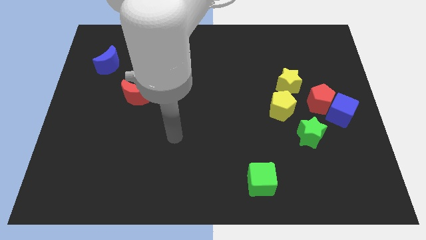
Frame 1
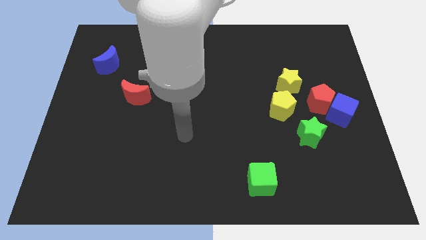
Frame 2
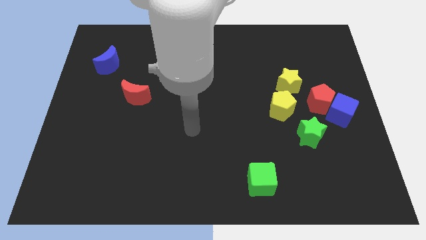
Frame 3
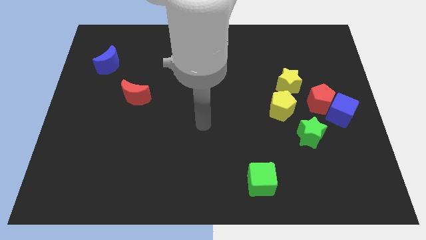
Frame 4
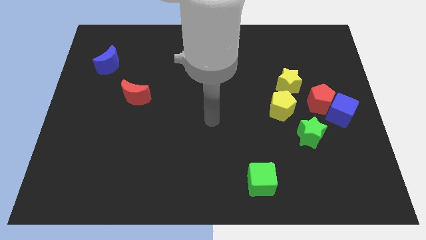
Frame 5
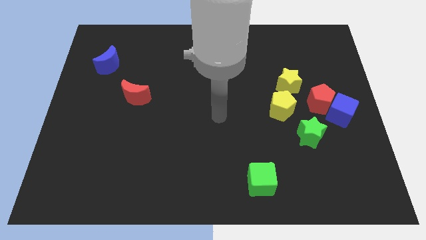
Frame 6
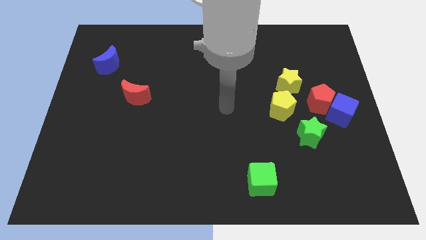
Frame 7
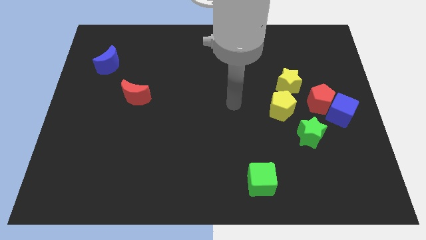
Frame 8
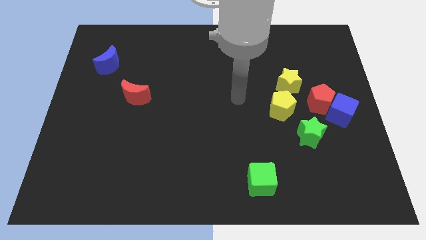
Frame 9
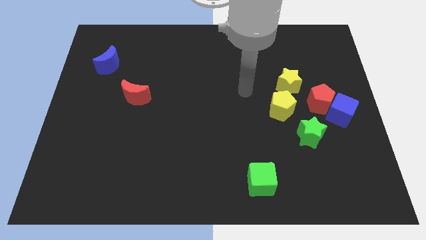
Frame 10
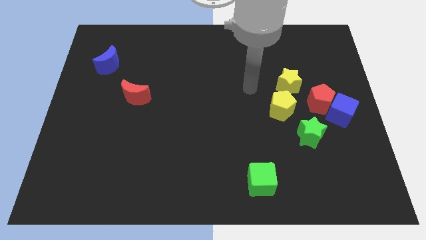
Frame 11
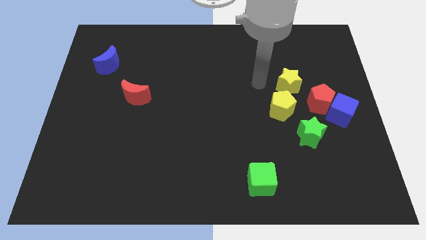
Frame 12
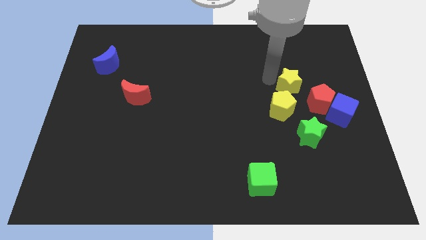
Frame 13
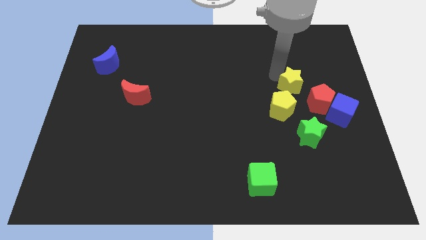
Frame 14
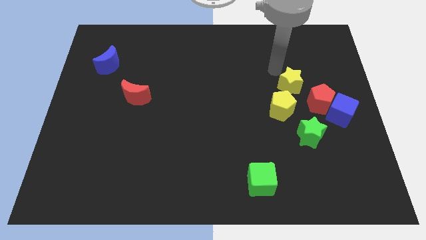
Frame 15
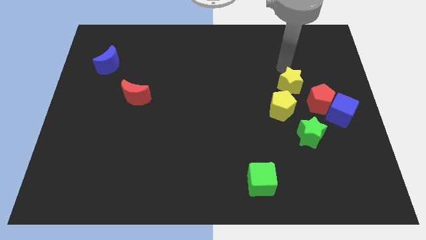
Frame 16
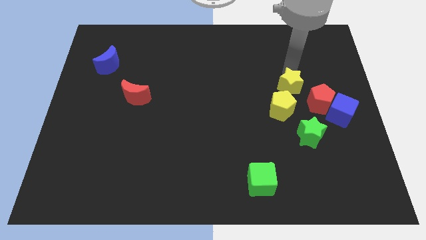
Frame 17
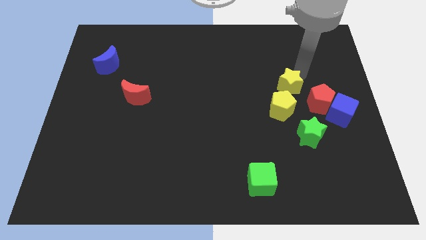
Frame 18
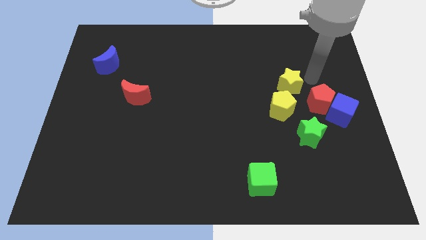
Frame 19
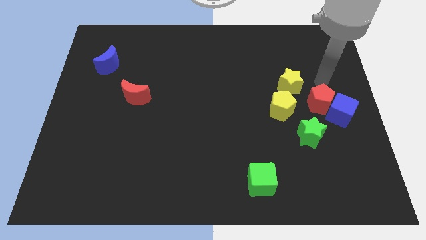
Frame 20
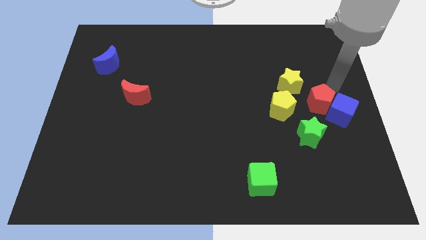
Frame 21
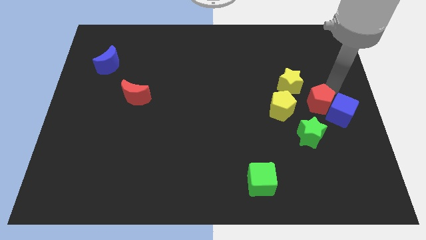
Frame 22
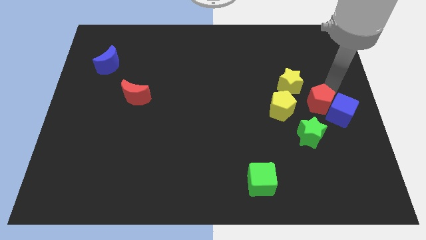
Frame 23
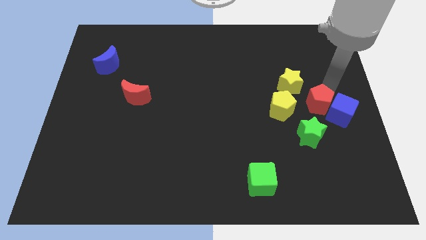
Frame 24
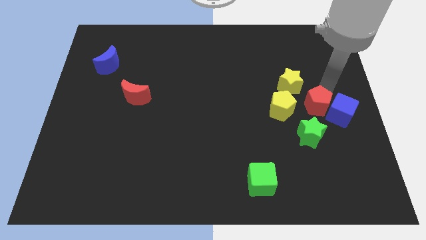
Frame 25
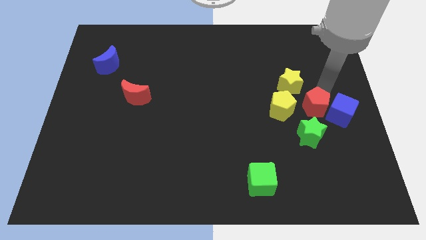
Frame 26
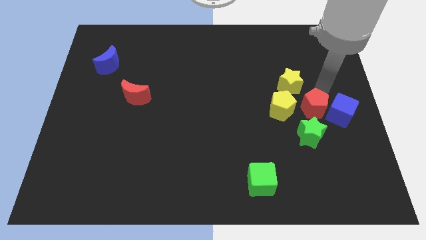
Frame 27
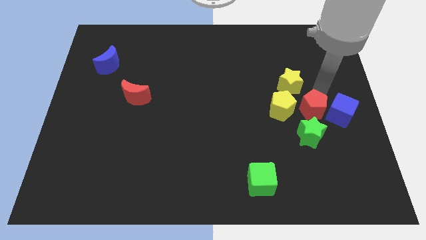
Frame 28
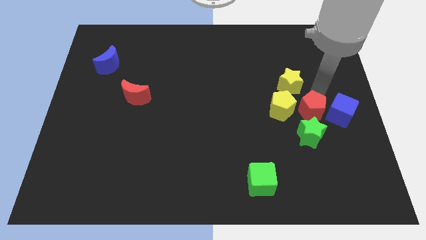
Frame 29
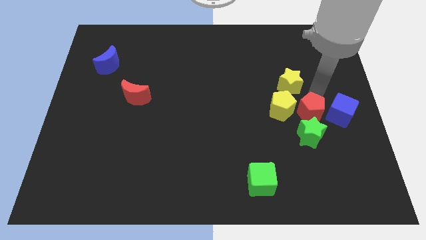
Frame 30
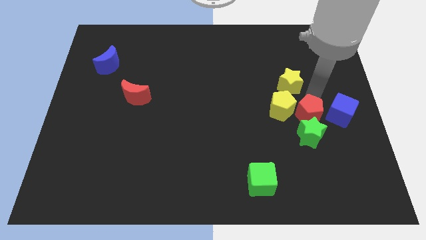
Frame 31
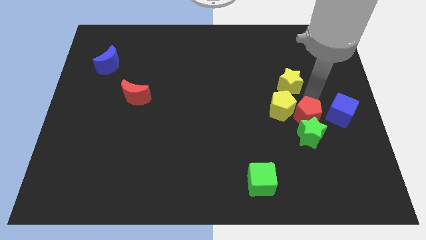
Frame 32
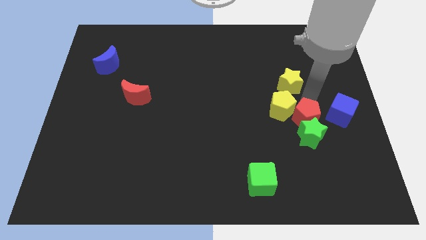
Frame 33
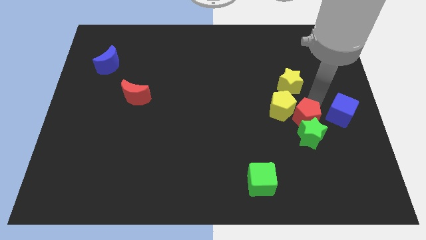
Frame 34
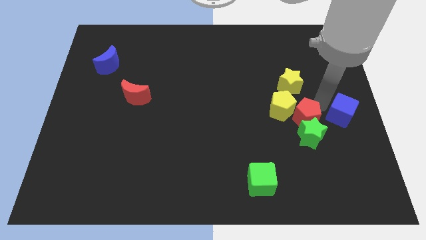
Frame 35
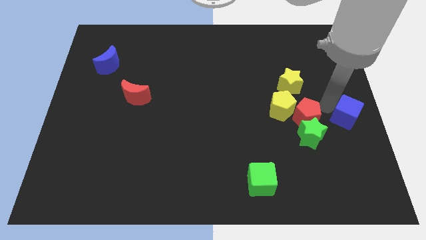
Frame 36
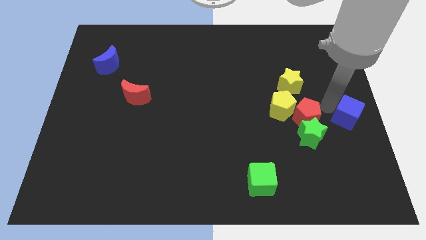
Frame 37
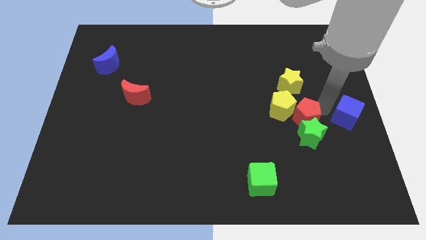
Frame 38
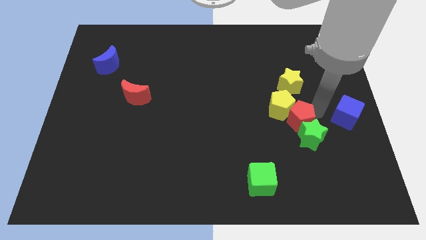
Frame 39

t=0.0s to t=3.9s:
slightly push the red pentagon downwards and left diagonally

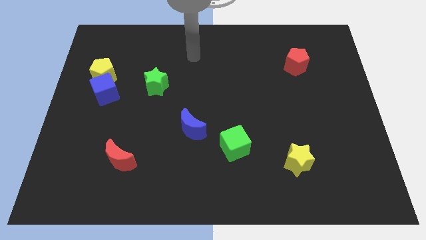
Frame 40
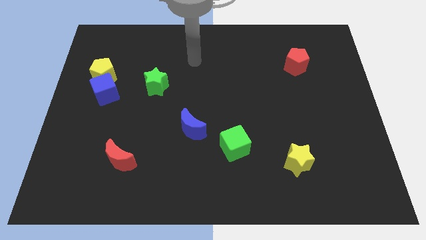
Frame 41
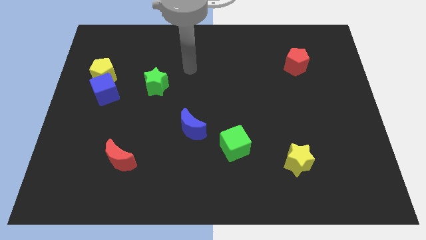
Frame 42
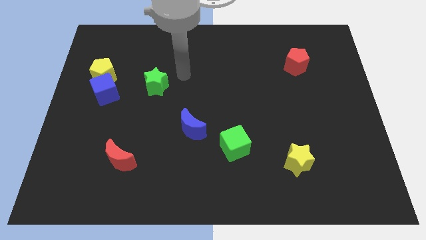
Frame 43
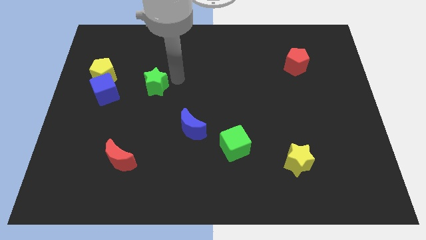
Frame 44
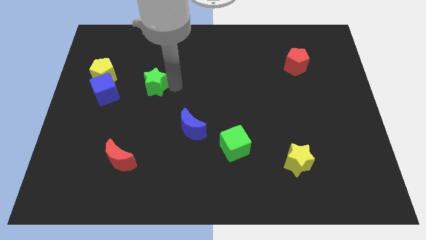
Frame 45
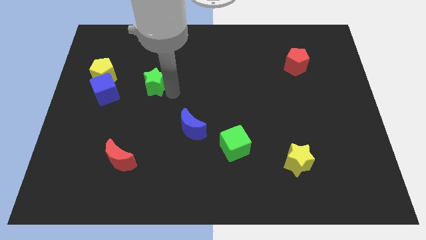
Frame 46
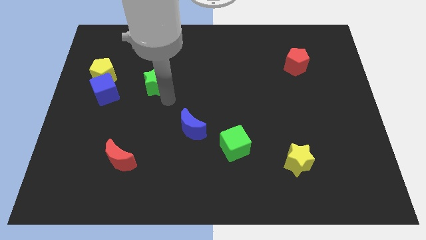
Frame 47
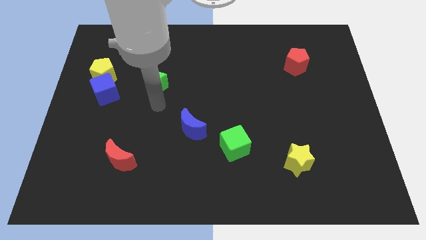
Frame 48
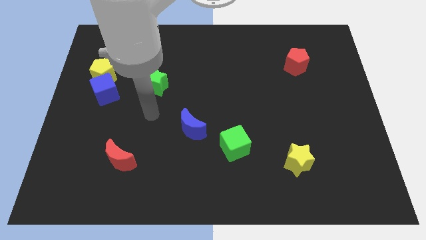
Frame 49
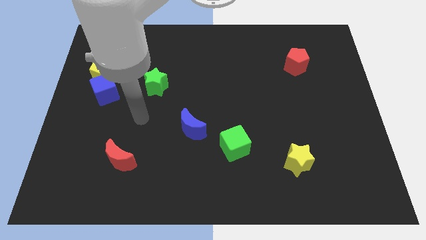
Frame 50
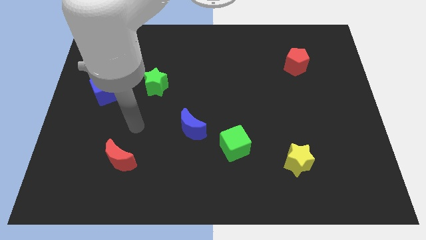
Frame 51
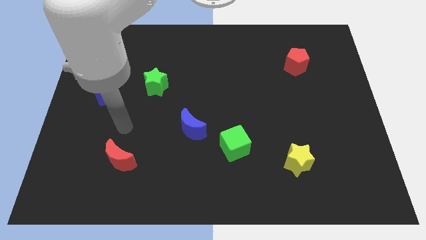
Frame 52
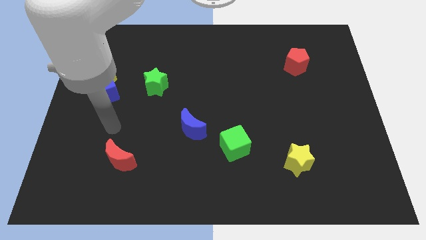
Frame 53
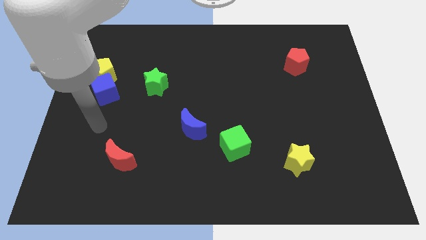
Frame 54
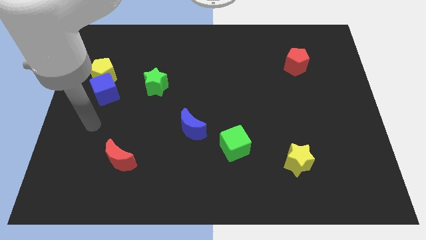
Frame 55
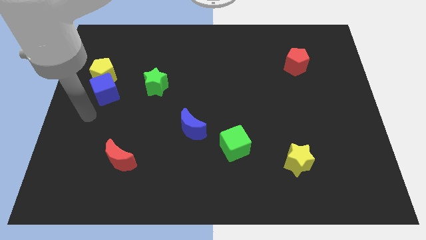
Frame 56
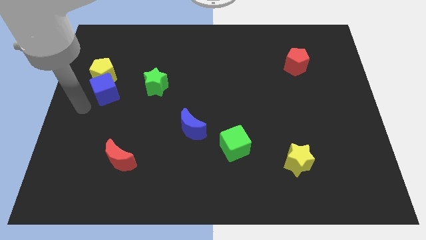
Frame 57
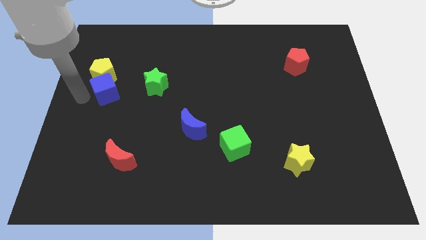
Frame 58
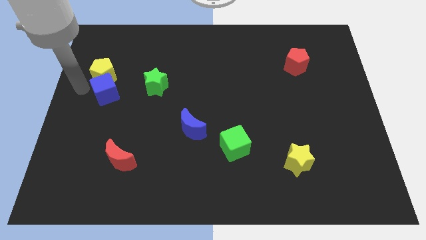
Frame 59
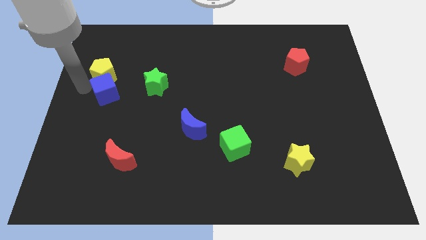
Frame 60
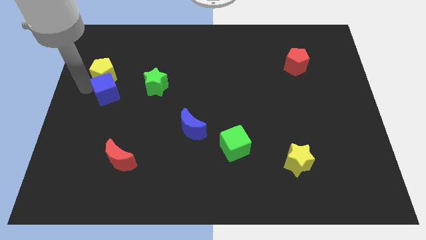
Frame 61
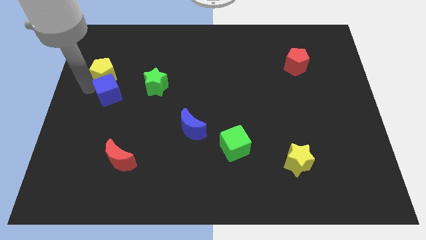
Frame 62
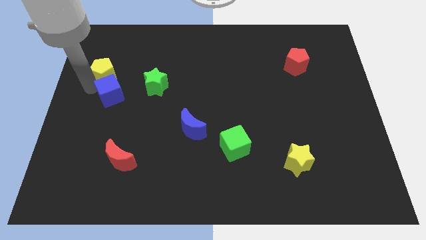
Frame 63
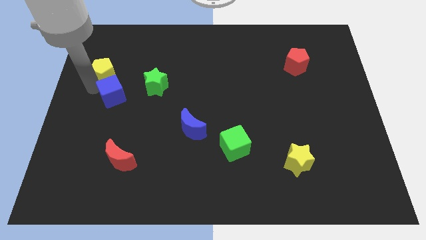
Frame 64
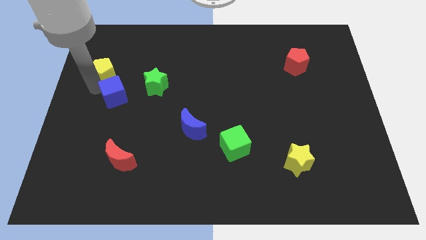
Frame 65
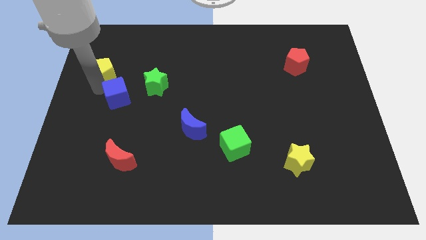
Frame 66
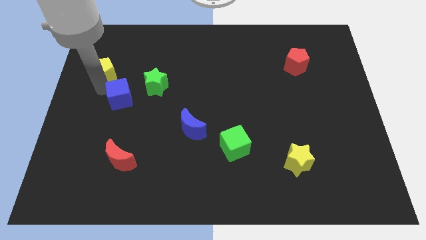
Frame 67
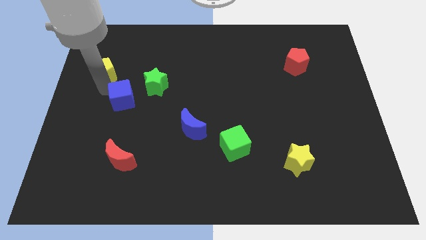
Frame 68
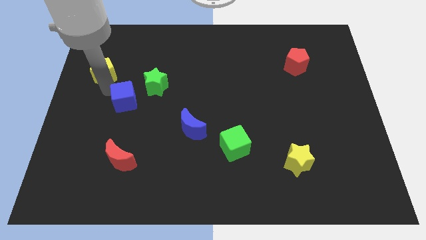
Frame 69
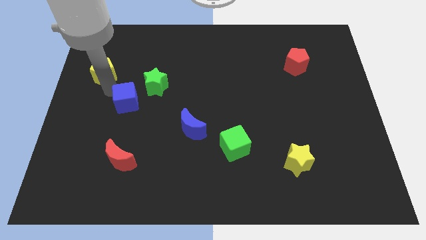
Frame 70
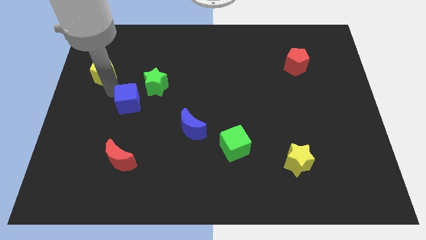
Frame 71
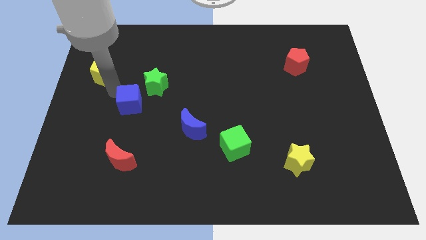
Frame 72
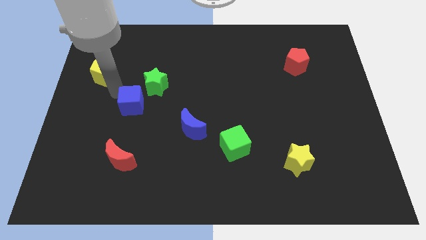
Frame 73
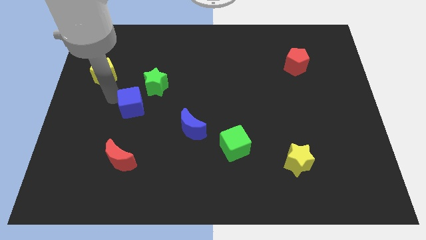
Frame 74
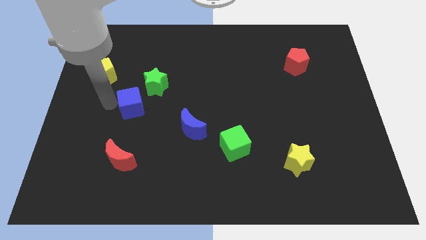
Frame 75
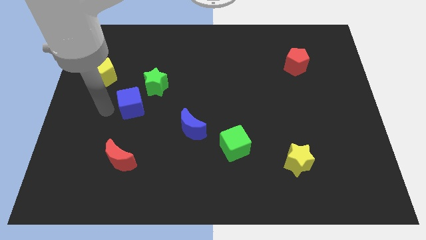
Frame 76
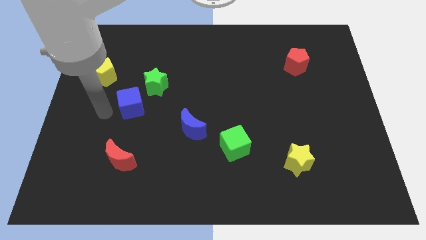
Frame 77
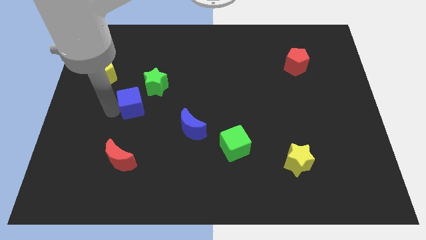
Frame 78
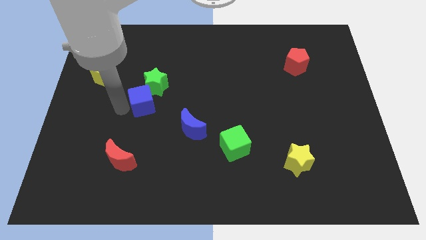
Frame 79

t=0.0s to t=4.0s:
slightly move the blue cube right
